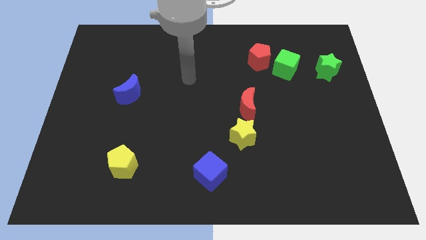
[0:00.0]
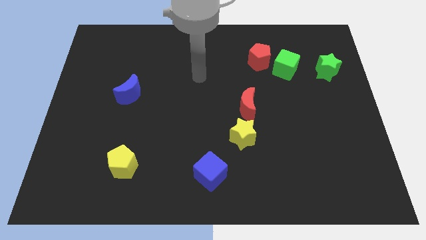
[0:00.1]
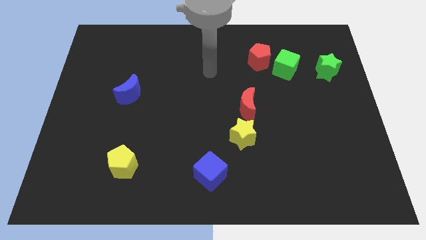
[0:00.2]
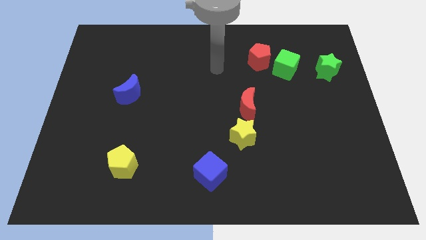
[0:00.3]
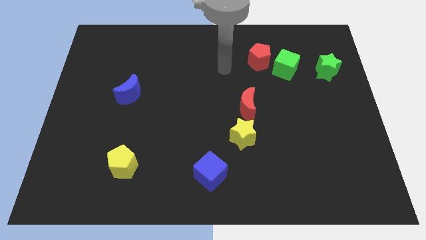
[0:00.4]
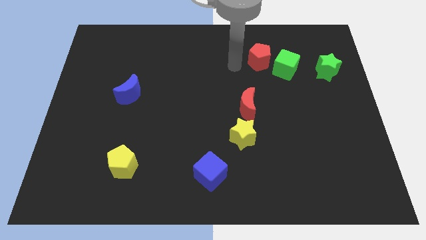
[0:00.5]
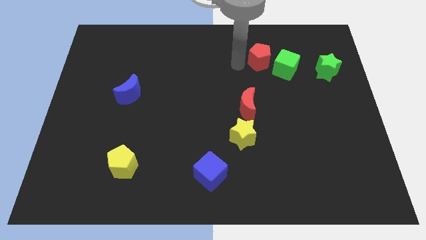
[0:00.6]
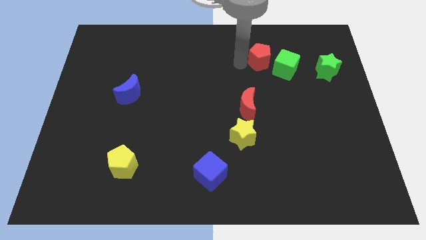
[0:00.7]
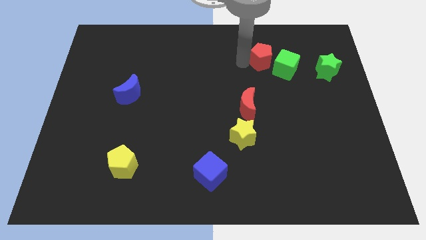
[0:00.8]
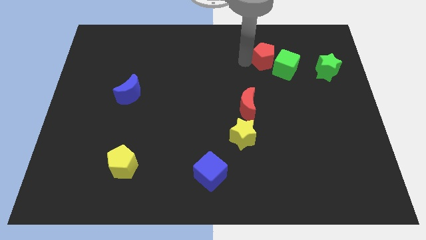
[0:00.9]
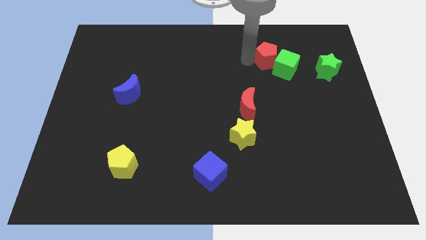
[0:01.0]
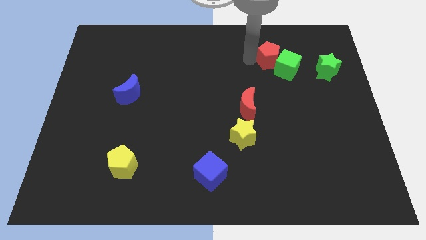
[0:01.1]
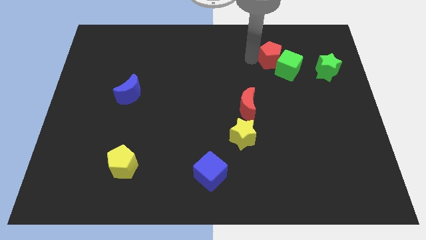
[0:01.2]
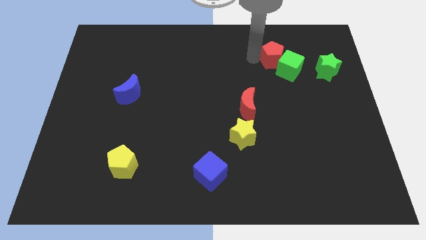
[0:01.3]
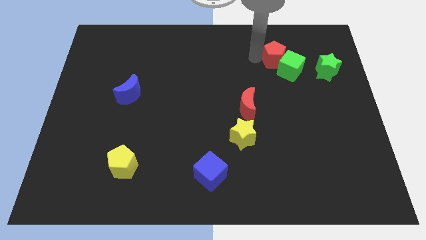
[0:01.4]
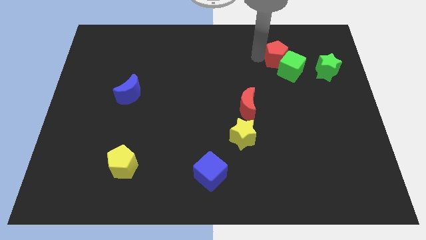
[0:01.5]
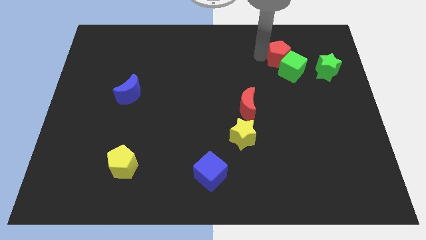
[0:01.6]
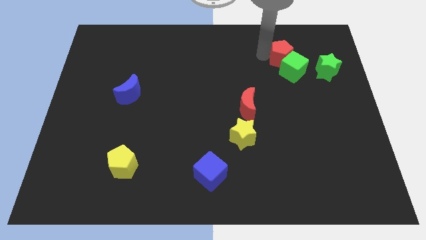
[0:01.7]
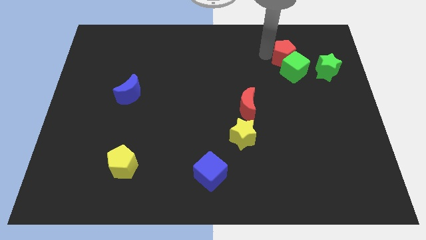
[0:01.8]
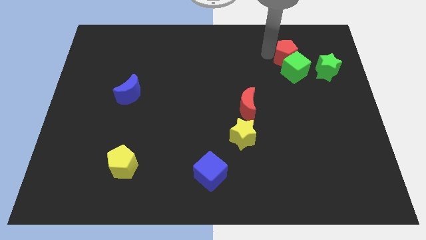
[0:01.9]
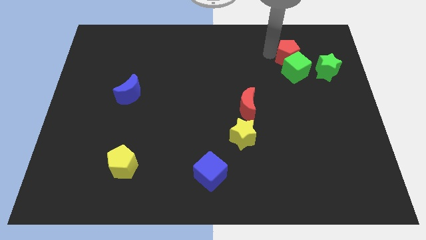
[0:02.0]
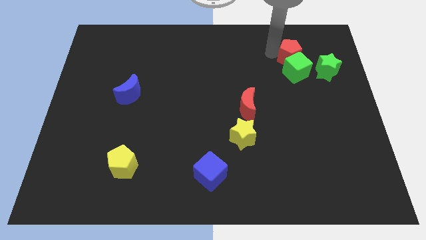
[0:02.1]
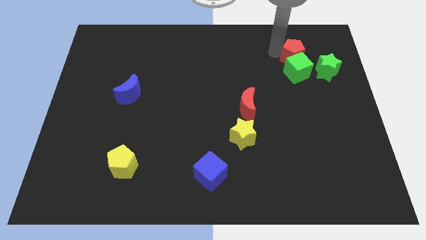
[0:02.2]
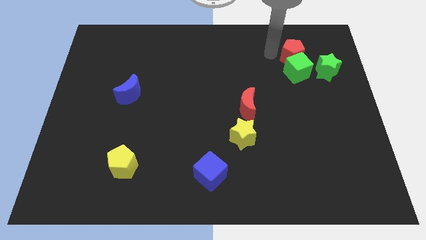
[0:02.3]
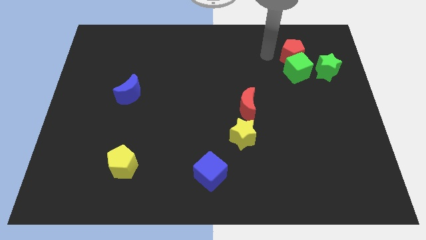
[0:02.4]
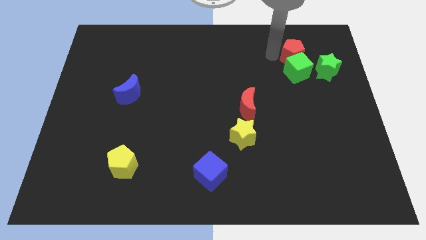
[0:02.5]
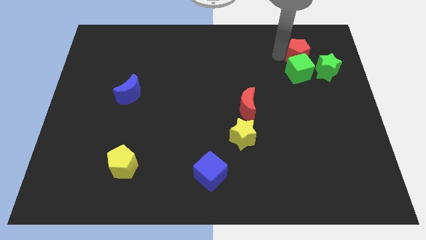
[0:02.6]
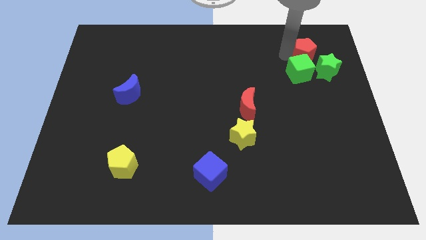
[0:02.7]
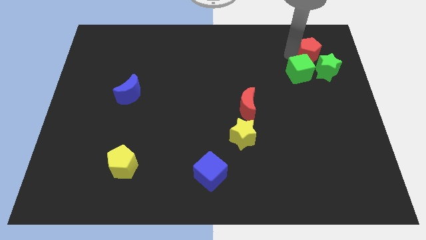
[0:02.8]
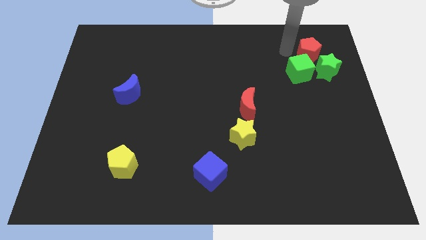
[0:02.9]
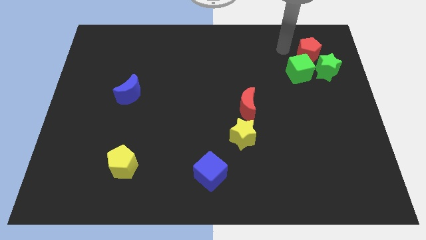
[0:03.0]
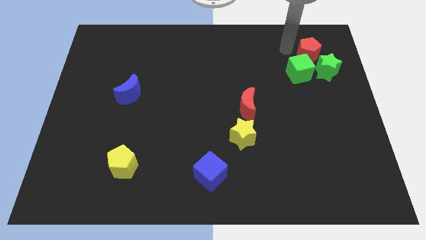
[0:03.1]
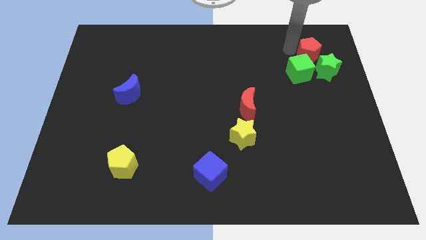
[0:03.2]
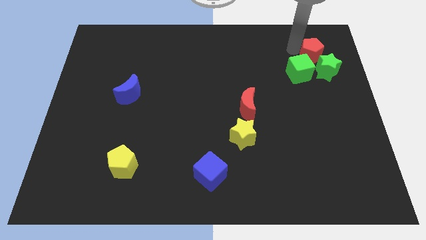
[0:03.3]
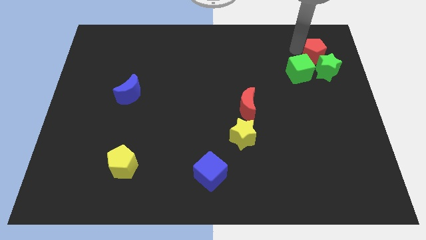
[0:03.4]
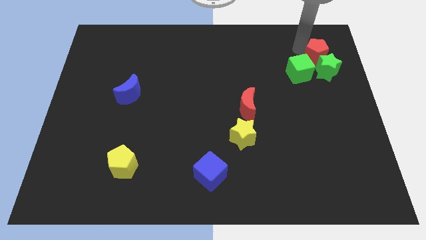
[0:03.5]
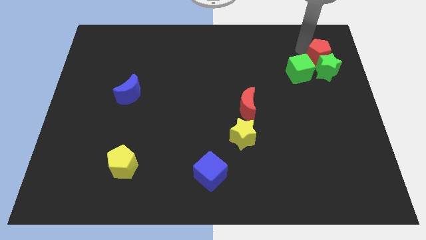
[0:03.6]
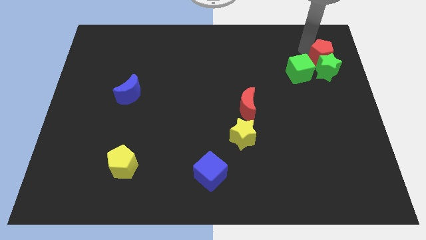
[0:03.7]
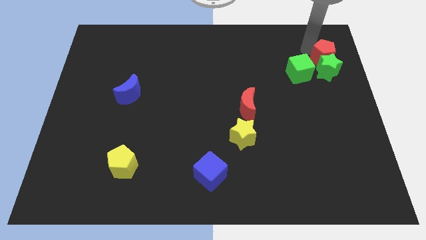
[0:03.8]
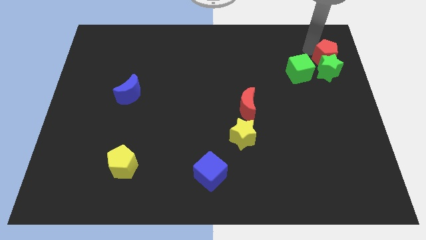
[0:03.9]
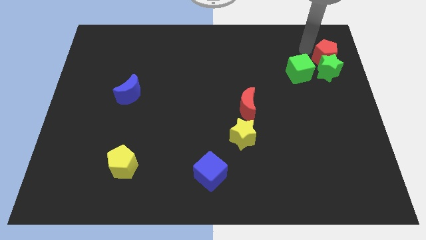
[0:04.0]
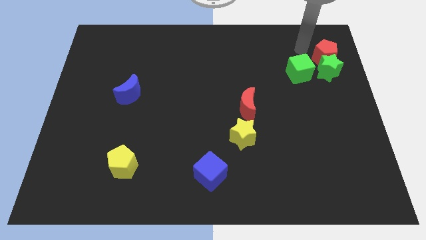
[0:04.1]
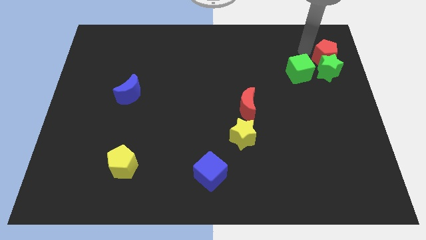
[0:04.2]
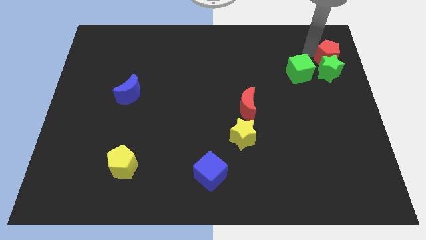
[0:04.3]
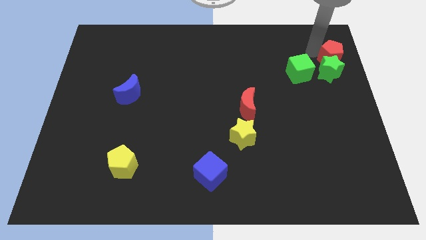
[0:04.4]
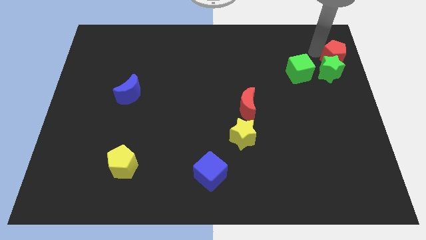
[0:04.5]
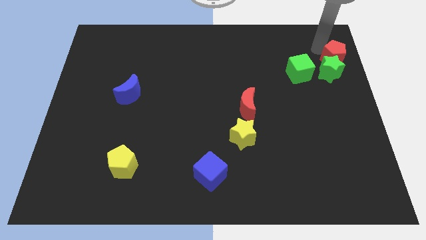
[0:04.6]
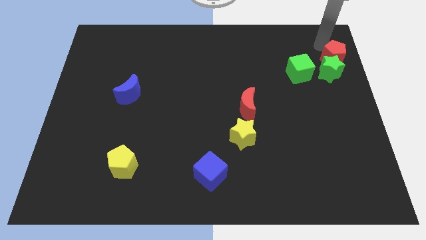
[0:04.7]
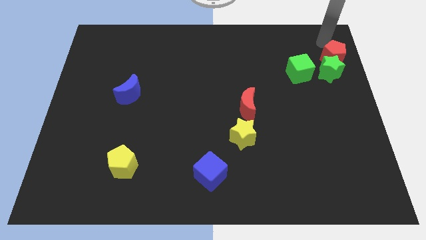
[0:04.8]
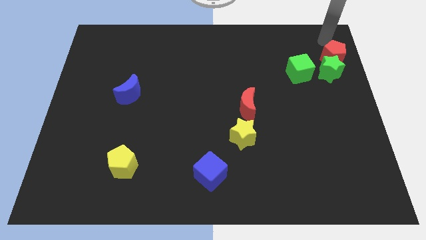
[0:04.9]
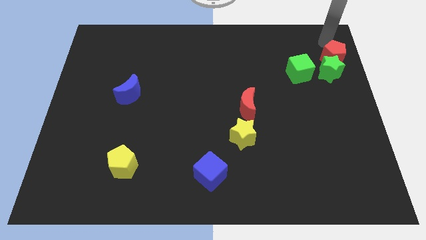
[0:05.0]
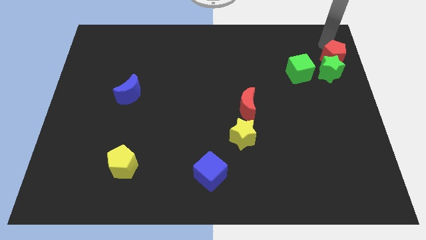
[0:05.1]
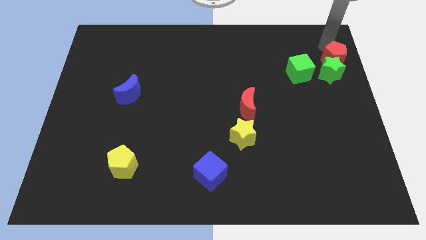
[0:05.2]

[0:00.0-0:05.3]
put the red pentagon to the right side of the green cube

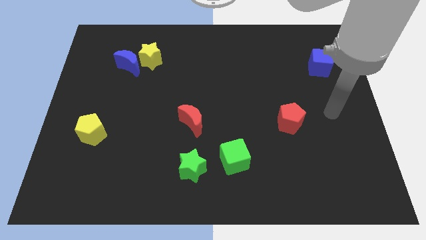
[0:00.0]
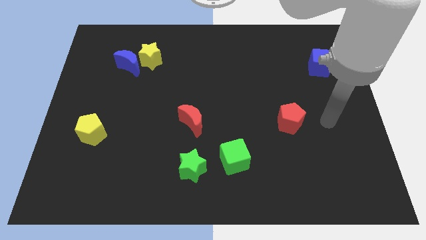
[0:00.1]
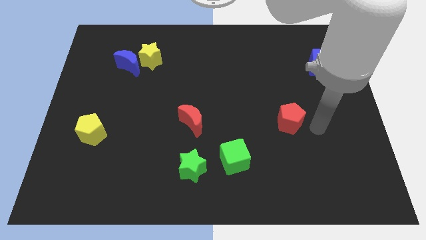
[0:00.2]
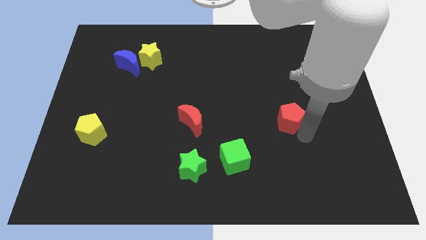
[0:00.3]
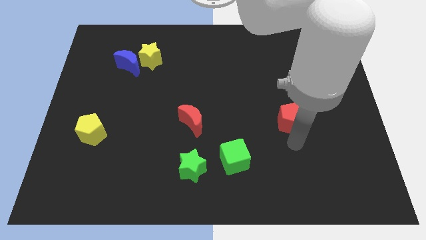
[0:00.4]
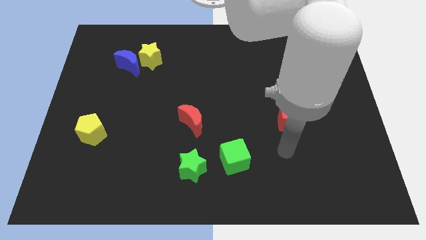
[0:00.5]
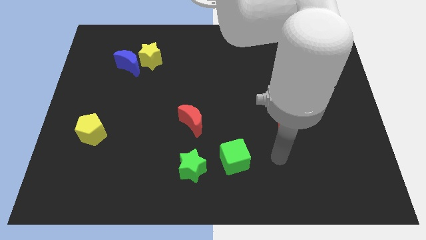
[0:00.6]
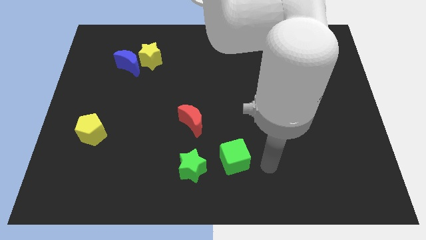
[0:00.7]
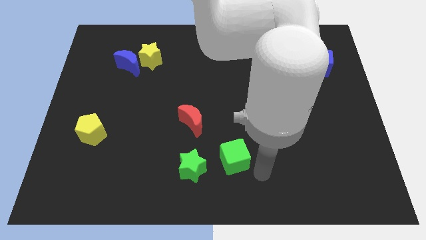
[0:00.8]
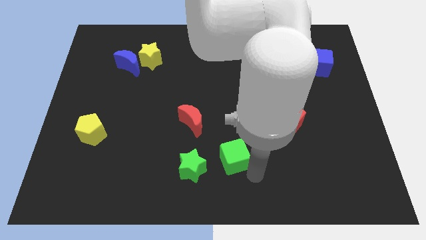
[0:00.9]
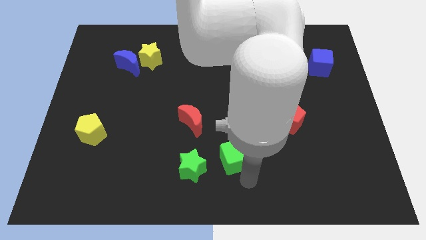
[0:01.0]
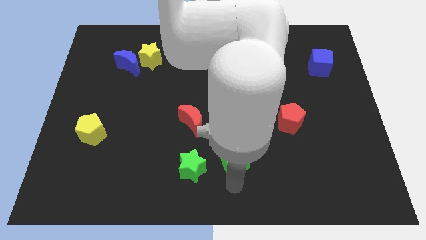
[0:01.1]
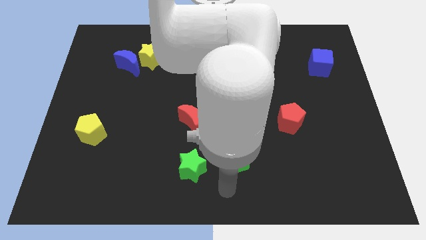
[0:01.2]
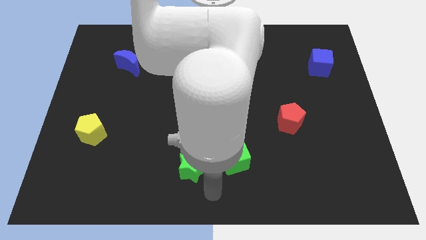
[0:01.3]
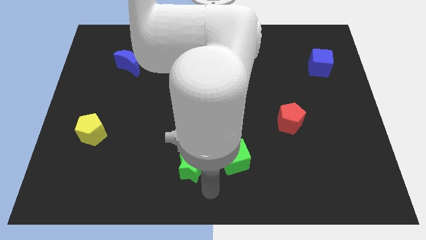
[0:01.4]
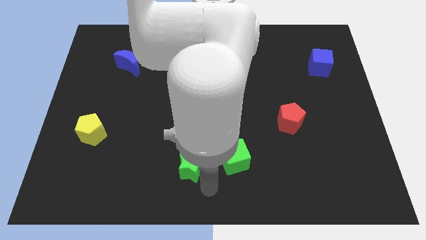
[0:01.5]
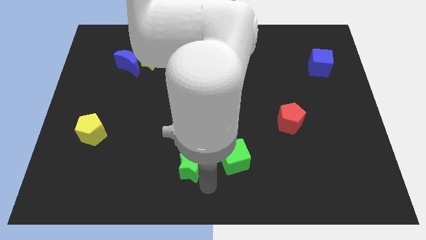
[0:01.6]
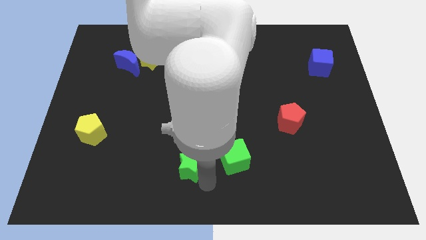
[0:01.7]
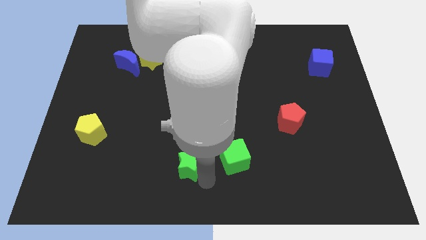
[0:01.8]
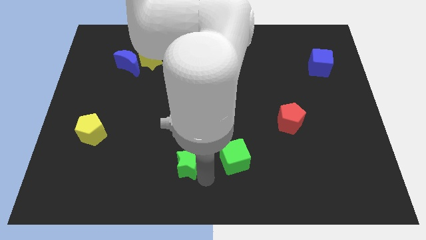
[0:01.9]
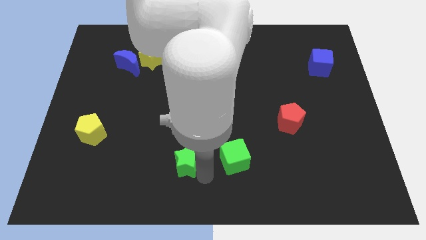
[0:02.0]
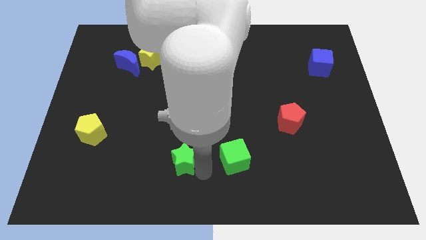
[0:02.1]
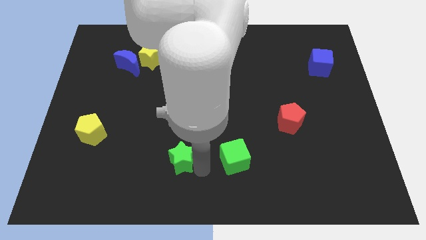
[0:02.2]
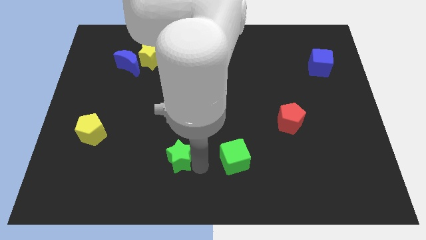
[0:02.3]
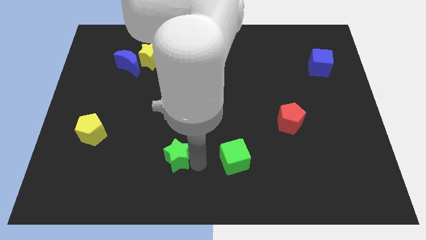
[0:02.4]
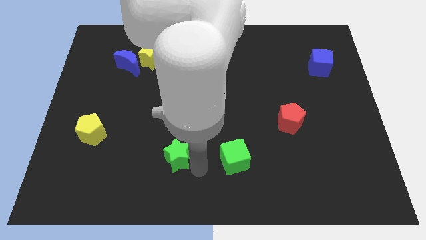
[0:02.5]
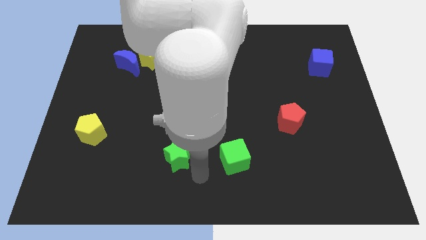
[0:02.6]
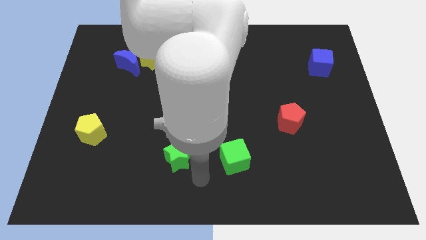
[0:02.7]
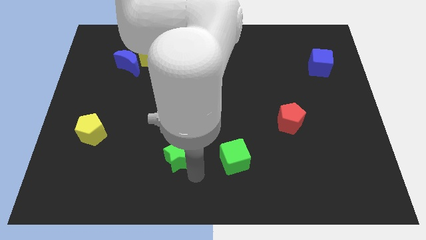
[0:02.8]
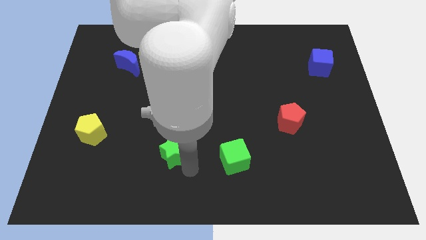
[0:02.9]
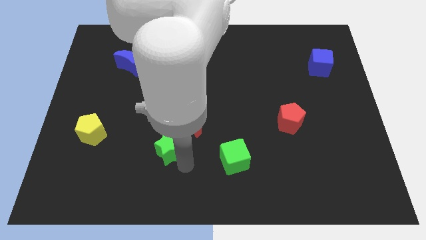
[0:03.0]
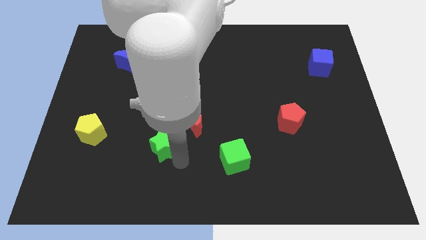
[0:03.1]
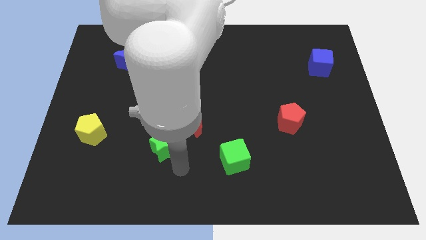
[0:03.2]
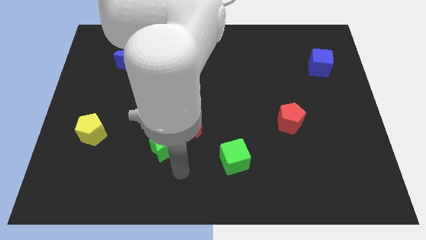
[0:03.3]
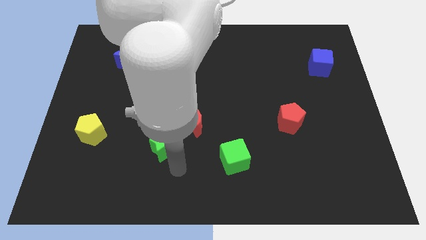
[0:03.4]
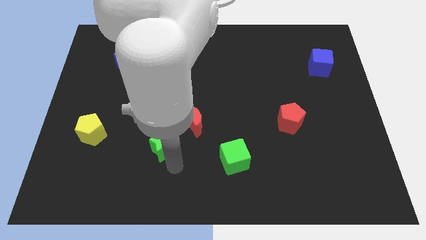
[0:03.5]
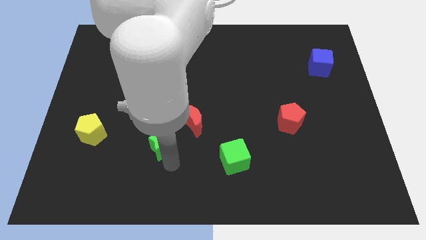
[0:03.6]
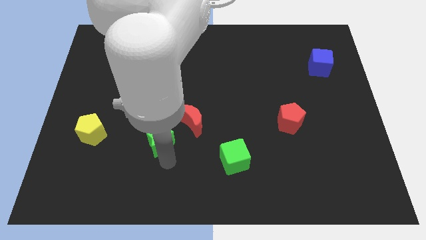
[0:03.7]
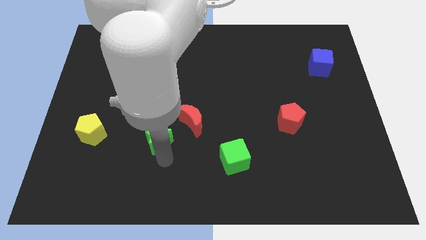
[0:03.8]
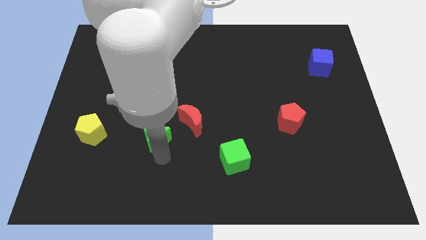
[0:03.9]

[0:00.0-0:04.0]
slide the green star left of the red moon
